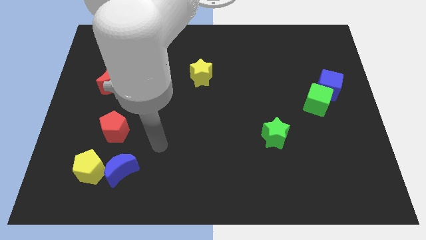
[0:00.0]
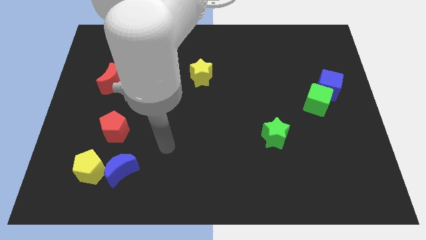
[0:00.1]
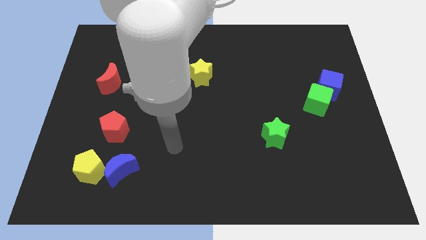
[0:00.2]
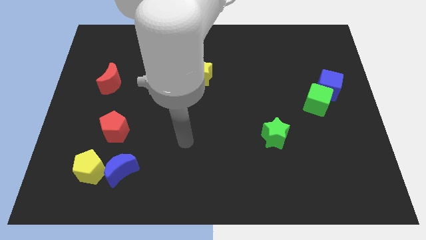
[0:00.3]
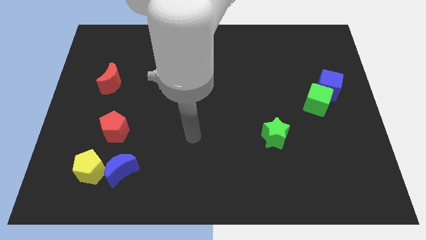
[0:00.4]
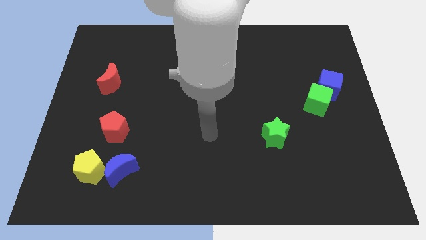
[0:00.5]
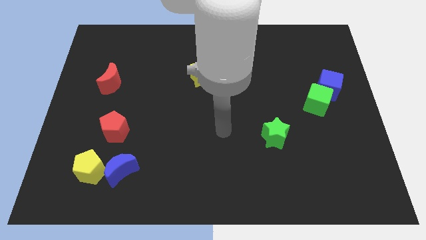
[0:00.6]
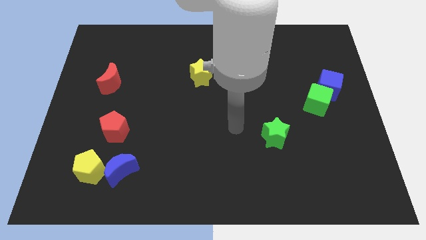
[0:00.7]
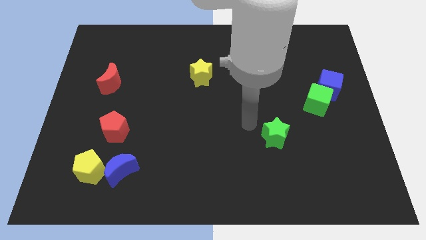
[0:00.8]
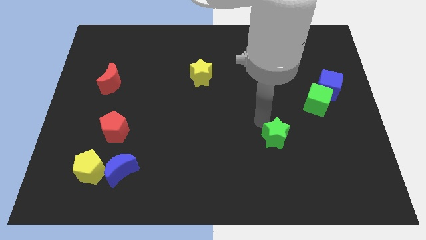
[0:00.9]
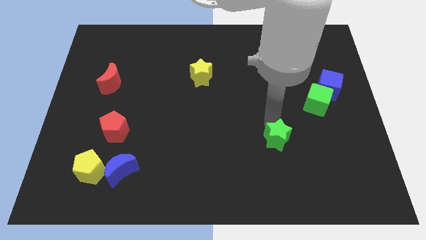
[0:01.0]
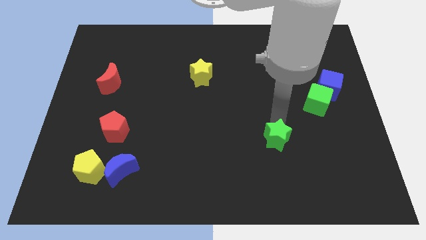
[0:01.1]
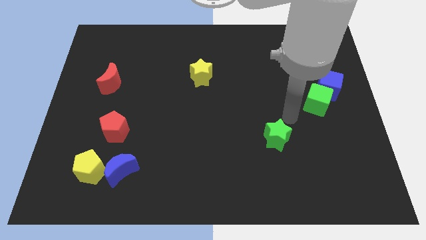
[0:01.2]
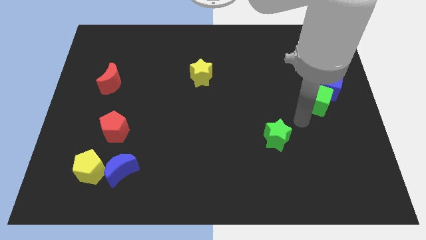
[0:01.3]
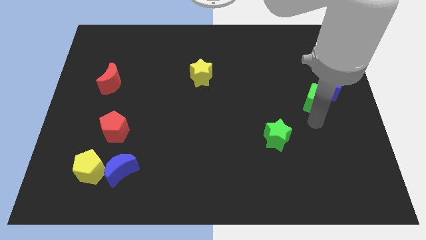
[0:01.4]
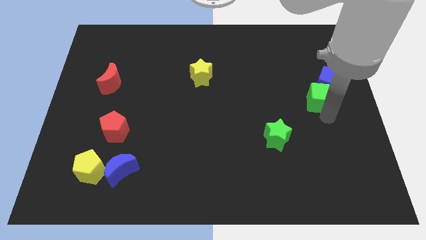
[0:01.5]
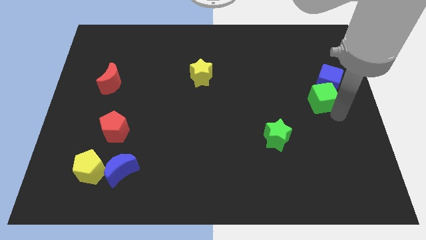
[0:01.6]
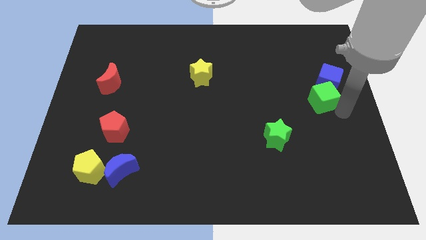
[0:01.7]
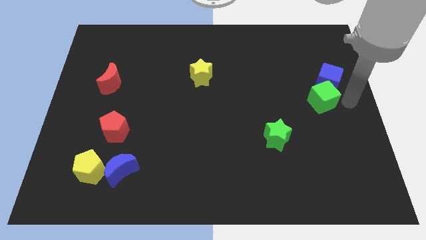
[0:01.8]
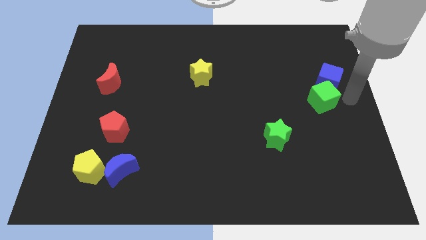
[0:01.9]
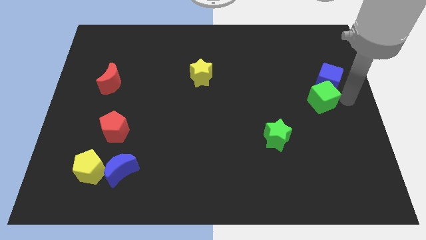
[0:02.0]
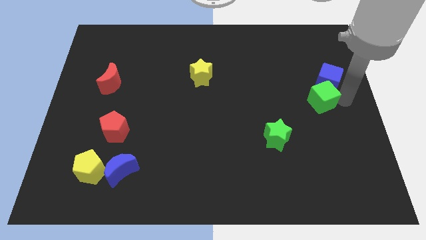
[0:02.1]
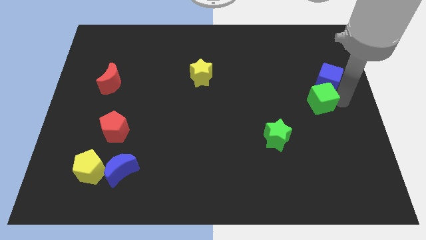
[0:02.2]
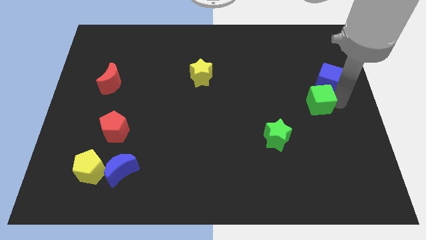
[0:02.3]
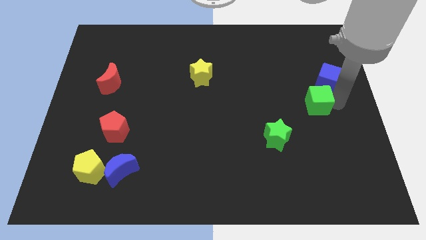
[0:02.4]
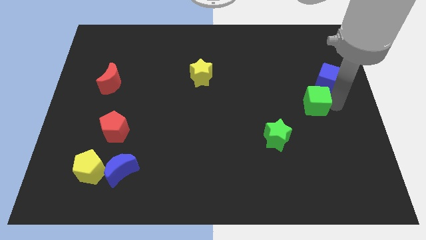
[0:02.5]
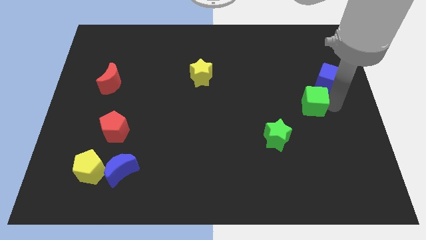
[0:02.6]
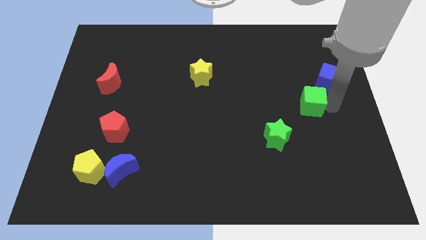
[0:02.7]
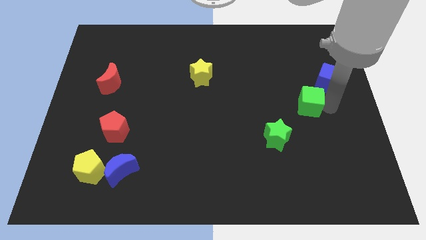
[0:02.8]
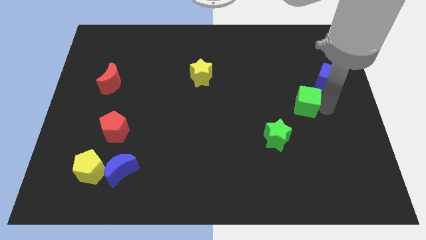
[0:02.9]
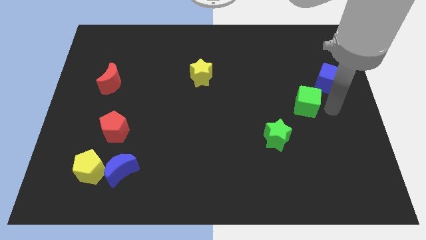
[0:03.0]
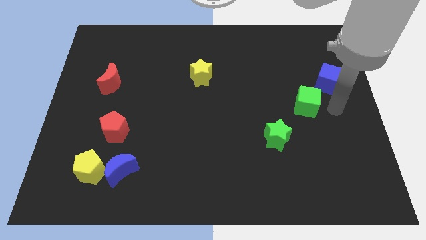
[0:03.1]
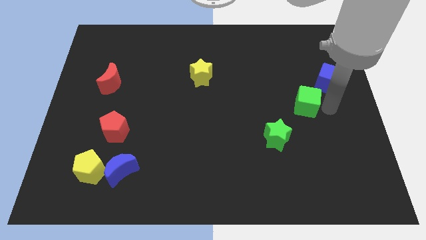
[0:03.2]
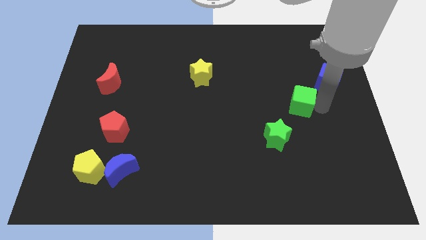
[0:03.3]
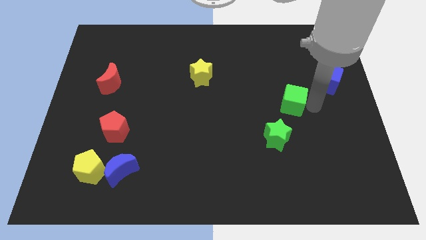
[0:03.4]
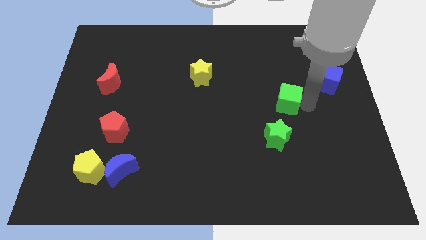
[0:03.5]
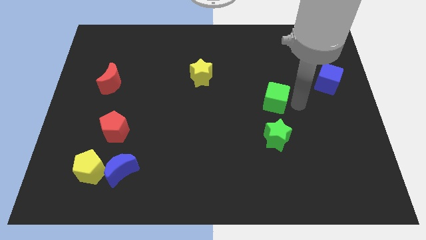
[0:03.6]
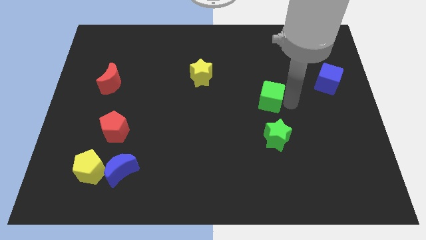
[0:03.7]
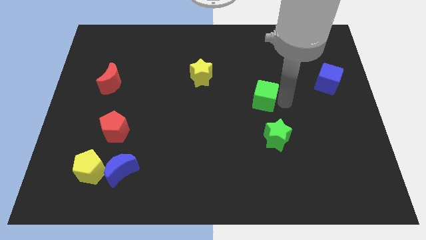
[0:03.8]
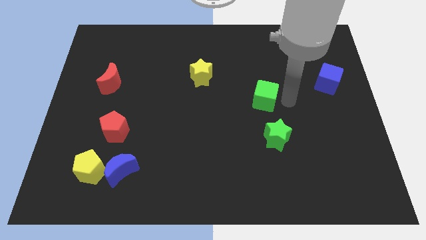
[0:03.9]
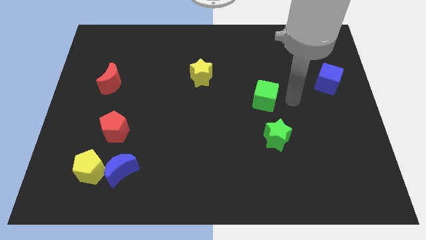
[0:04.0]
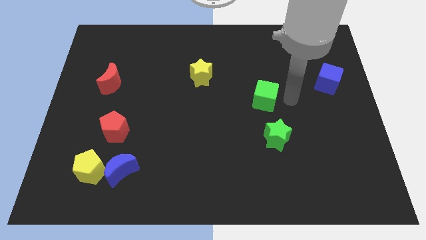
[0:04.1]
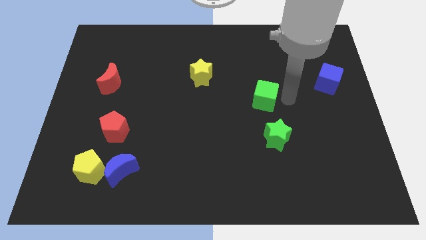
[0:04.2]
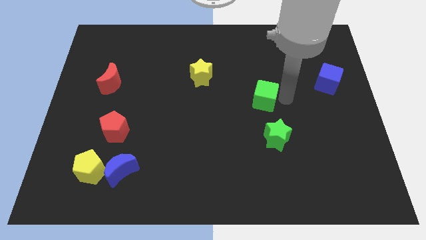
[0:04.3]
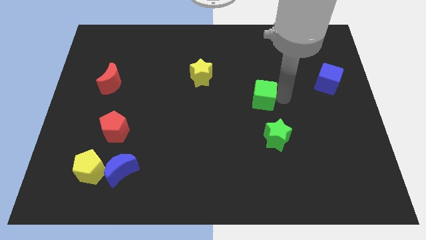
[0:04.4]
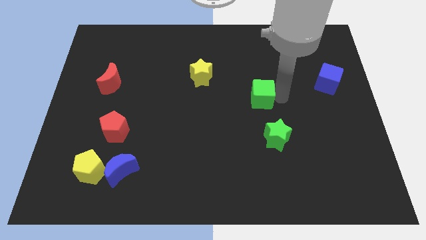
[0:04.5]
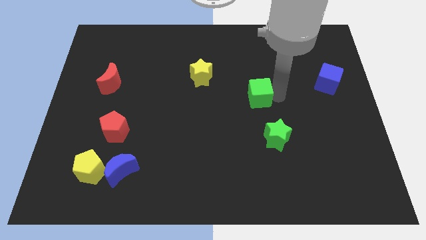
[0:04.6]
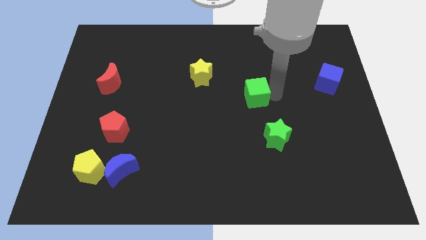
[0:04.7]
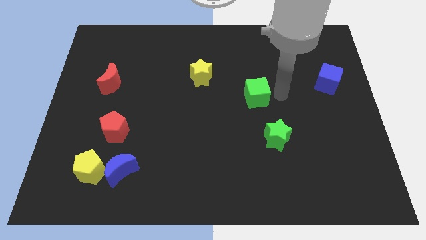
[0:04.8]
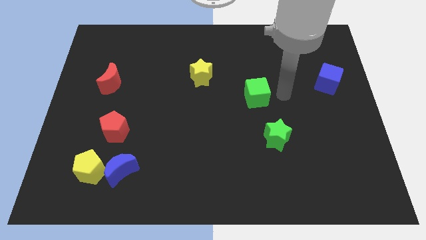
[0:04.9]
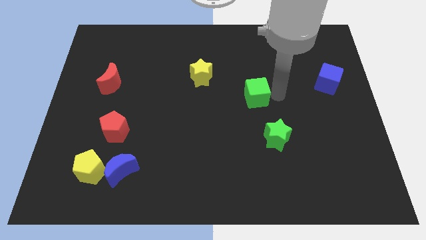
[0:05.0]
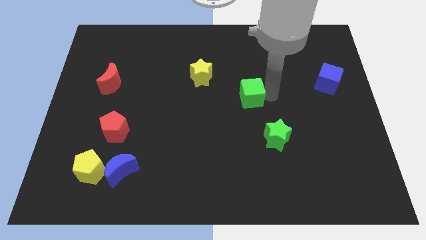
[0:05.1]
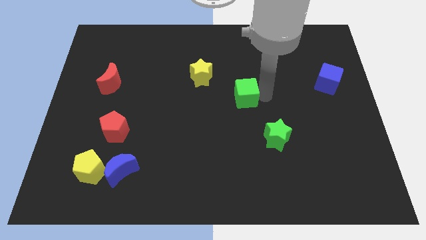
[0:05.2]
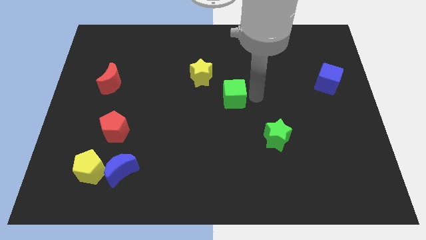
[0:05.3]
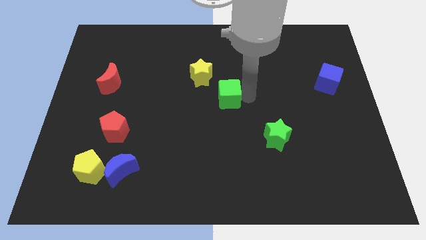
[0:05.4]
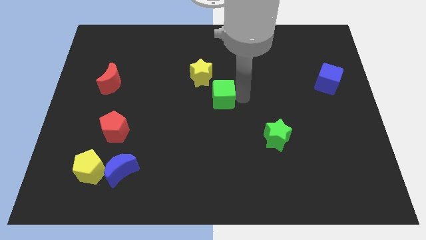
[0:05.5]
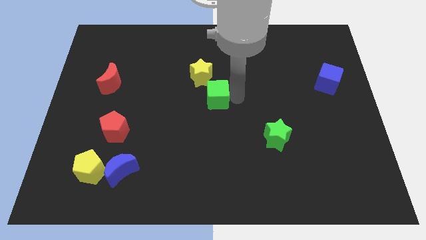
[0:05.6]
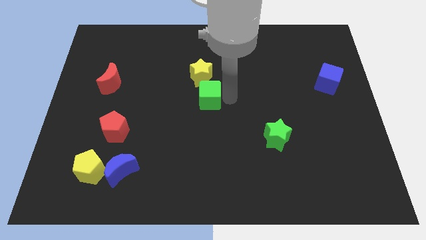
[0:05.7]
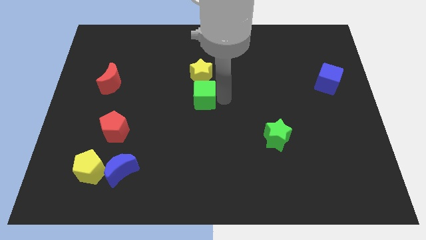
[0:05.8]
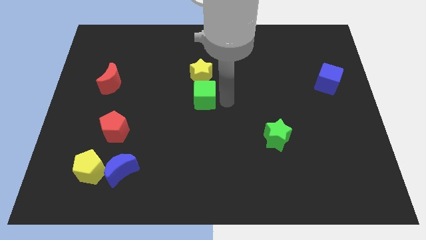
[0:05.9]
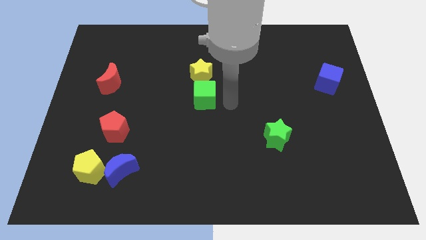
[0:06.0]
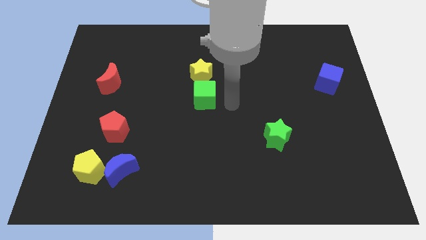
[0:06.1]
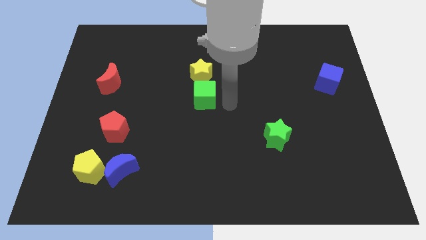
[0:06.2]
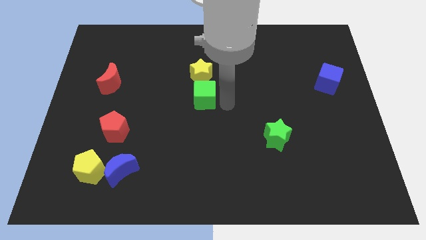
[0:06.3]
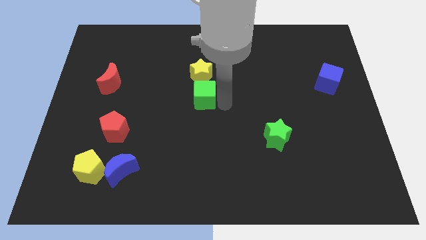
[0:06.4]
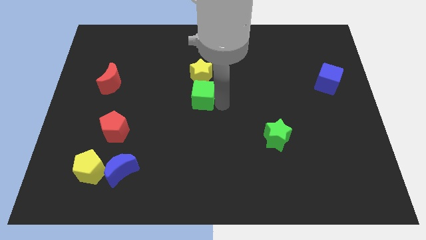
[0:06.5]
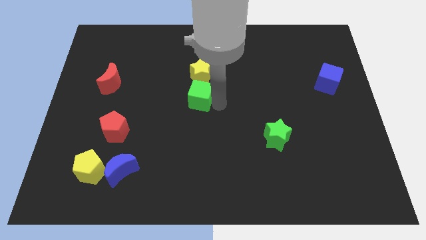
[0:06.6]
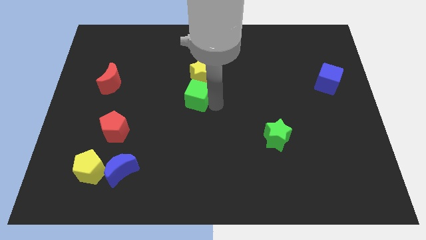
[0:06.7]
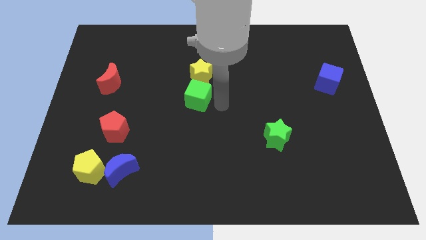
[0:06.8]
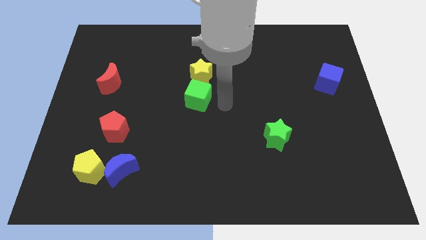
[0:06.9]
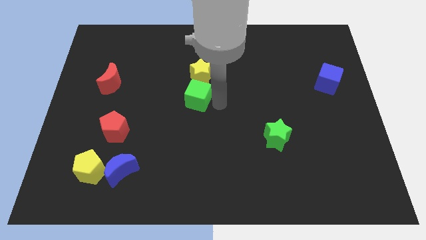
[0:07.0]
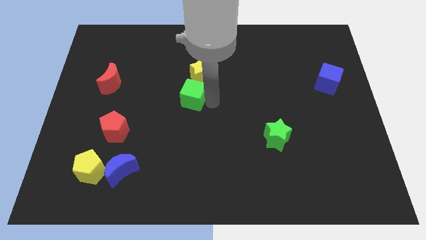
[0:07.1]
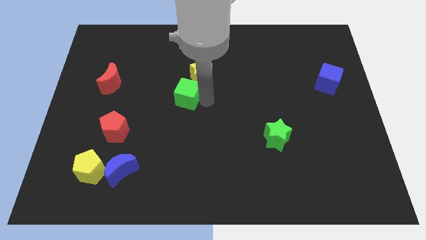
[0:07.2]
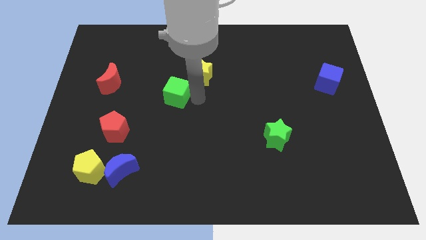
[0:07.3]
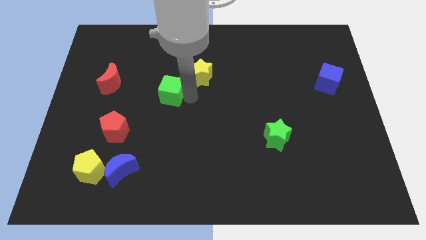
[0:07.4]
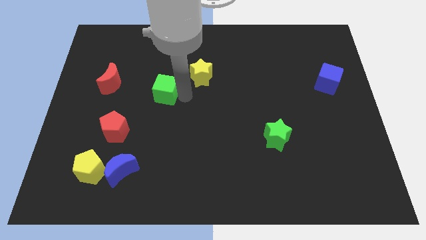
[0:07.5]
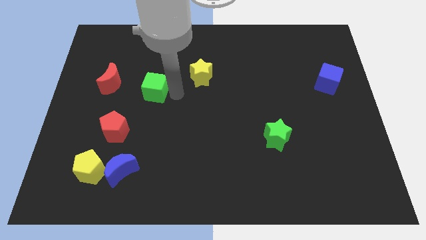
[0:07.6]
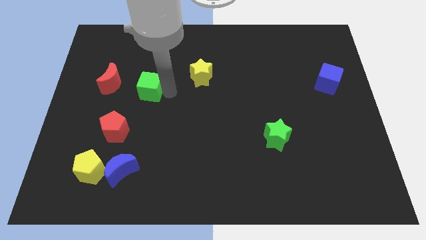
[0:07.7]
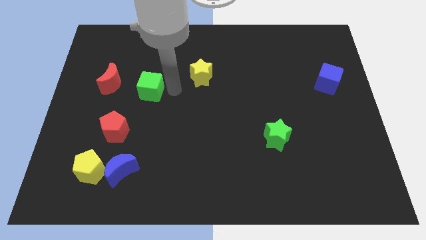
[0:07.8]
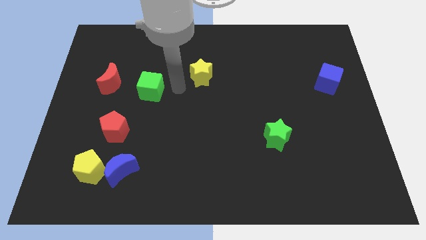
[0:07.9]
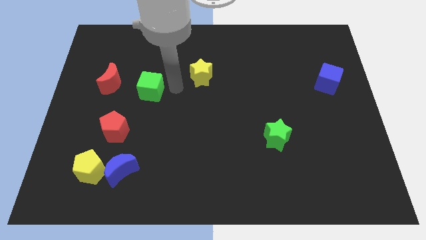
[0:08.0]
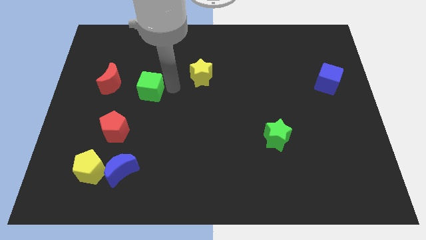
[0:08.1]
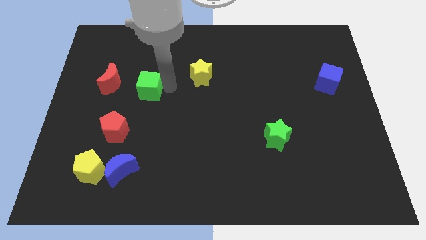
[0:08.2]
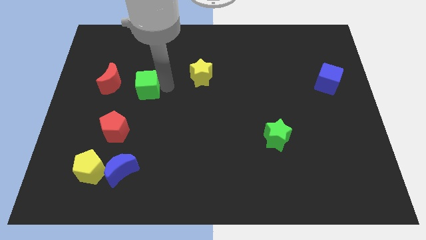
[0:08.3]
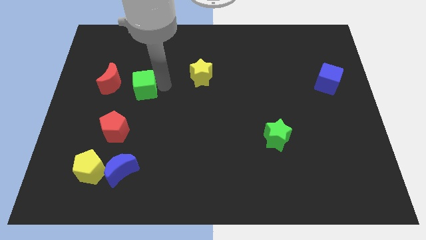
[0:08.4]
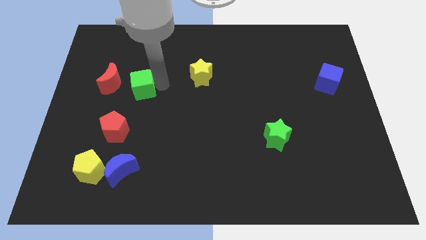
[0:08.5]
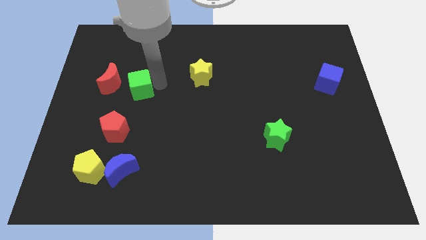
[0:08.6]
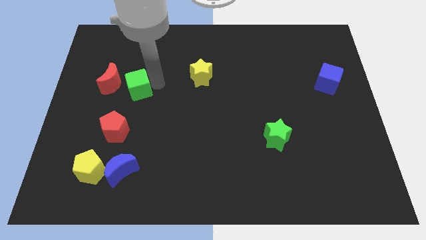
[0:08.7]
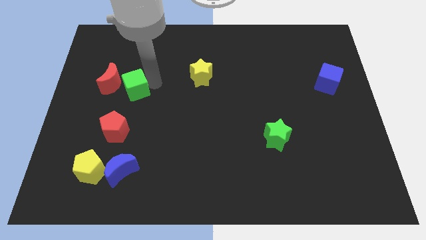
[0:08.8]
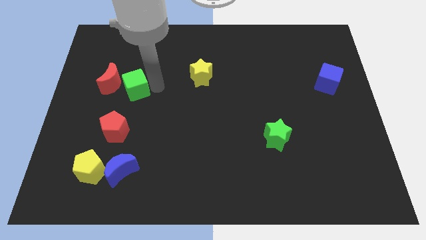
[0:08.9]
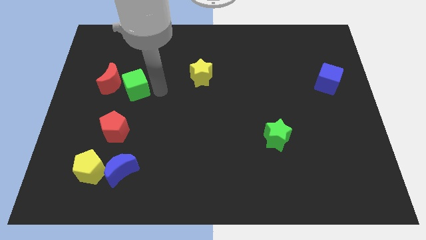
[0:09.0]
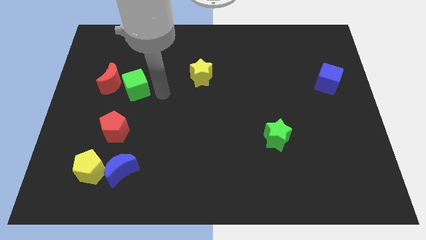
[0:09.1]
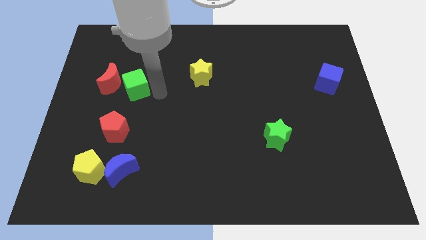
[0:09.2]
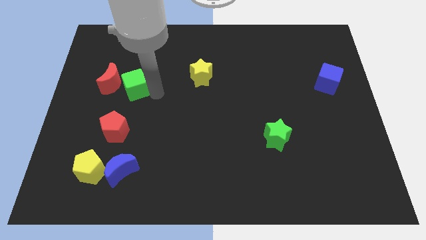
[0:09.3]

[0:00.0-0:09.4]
push the green cube next to the red moon
